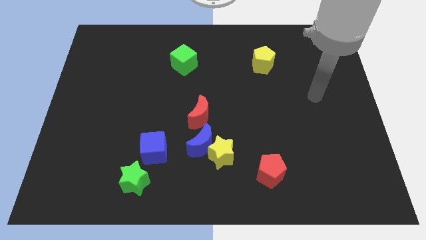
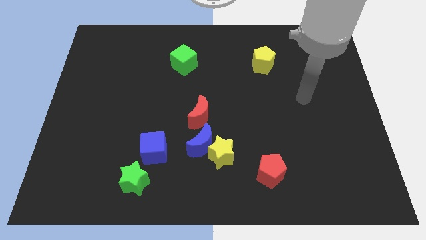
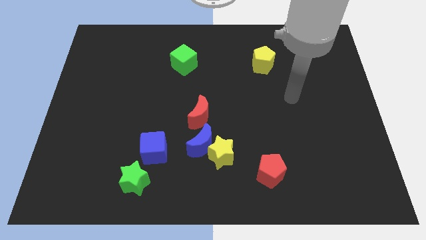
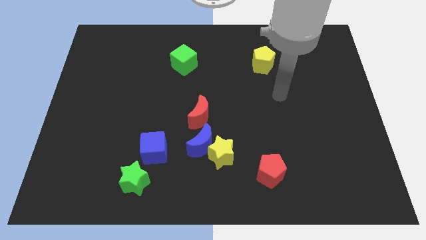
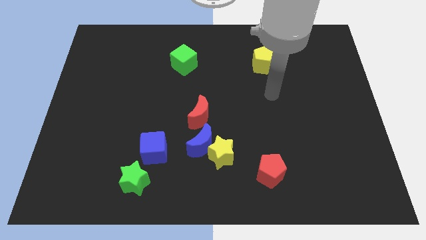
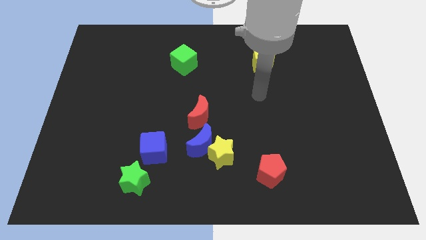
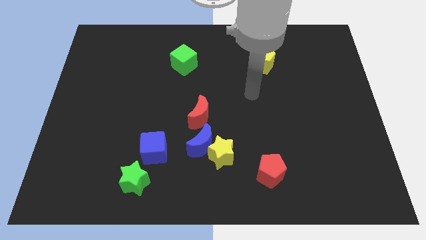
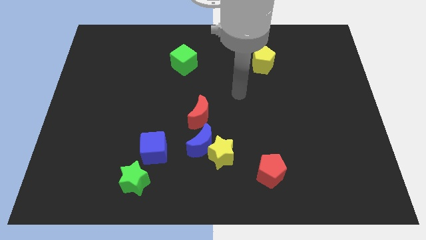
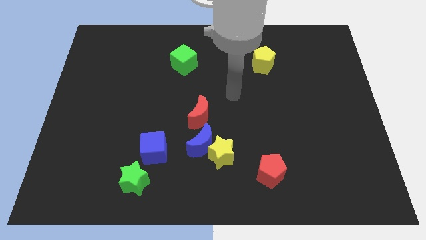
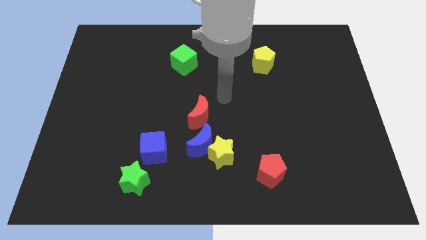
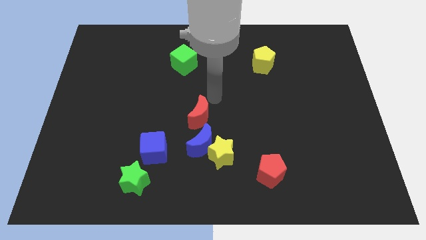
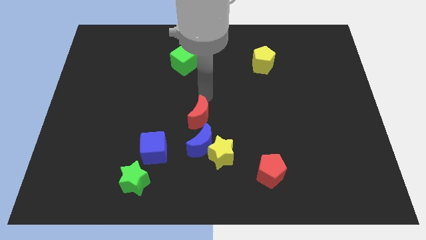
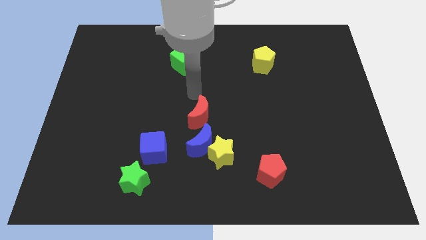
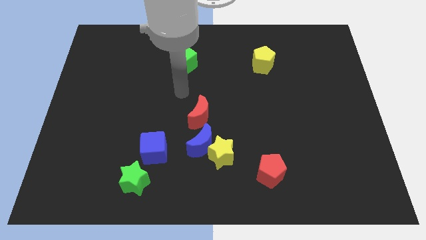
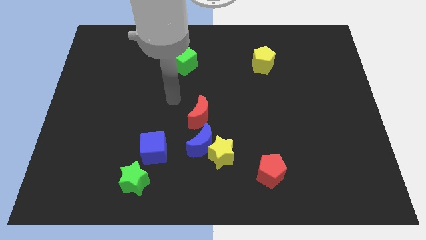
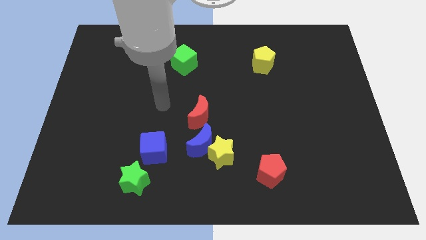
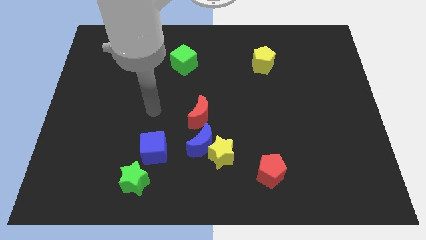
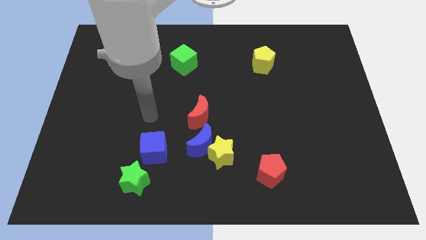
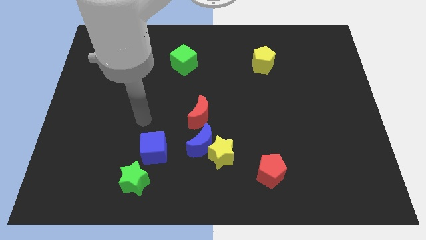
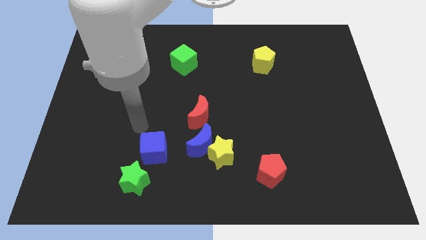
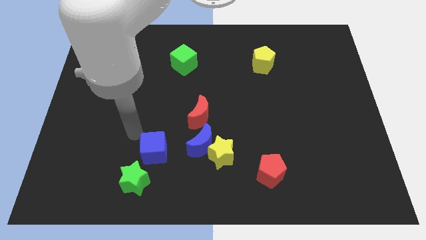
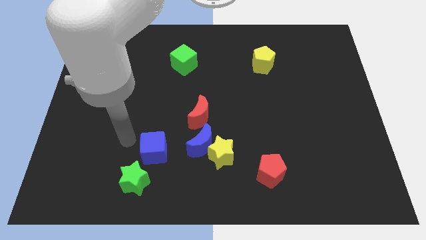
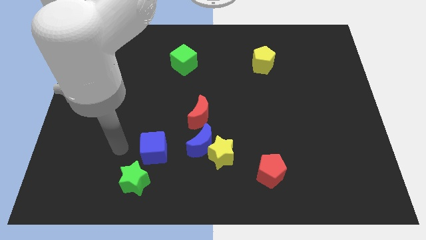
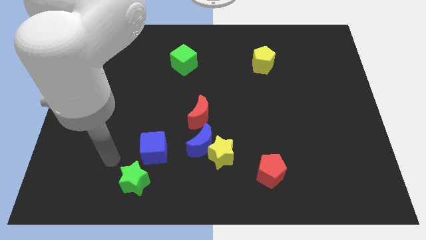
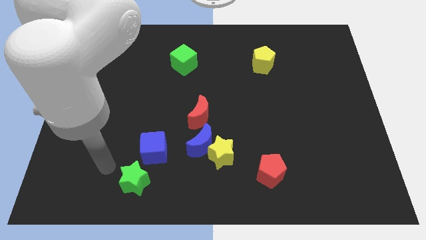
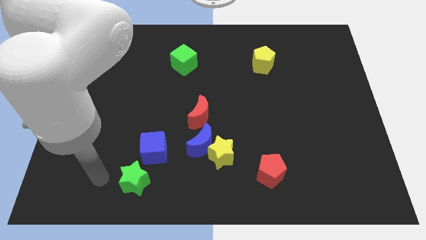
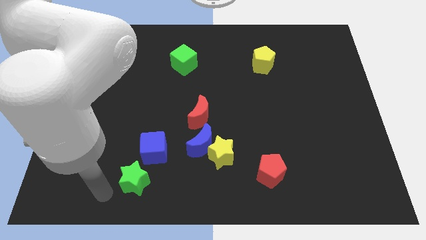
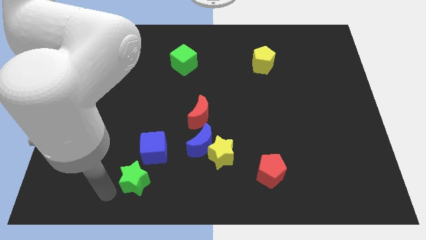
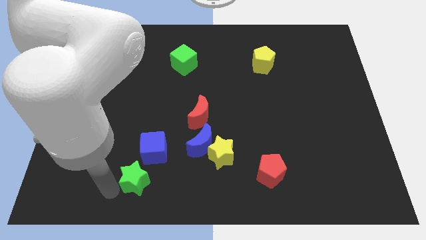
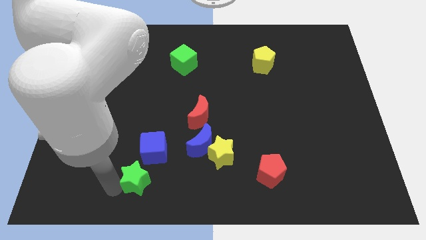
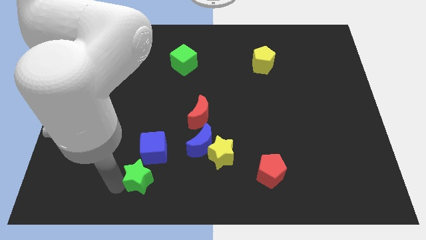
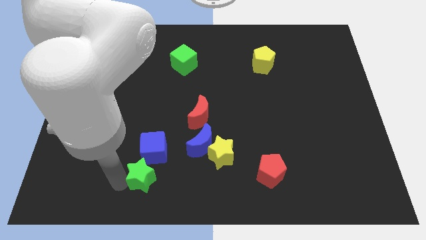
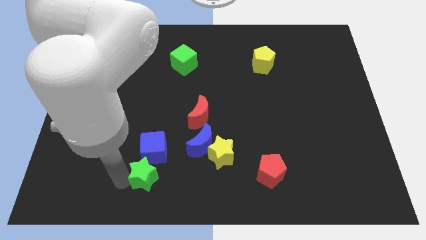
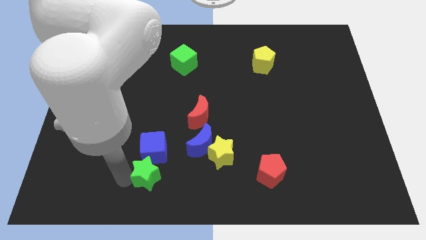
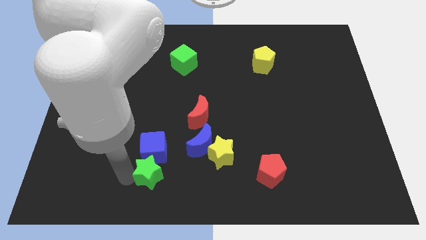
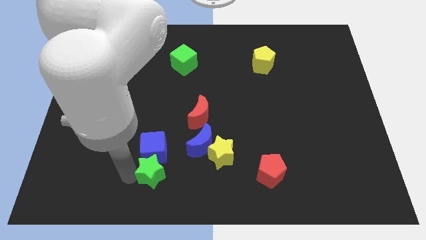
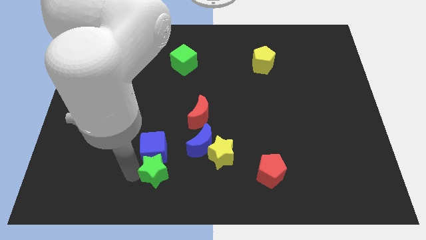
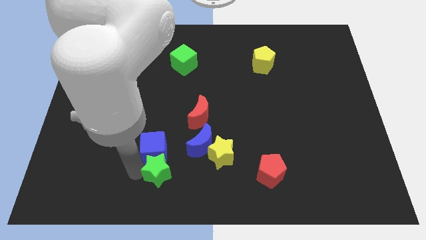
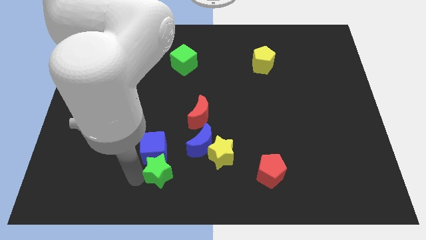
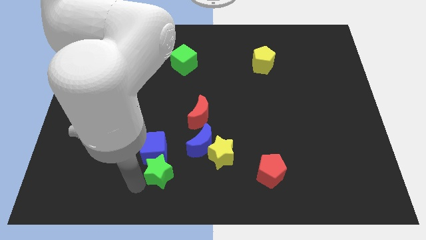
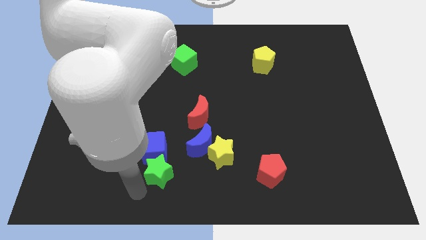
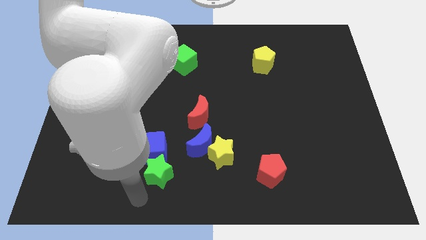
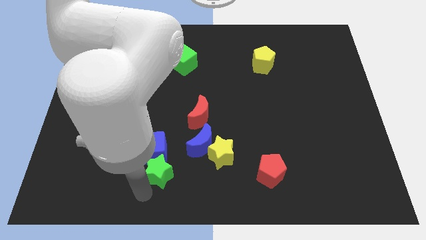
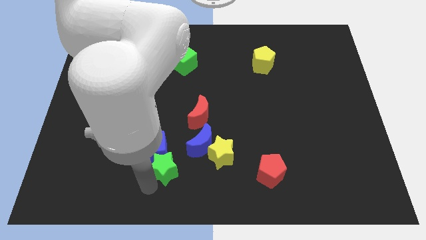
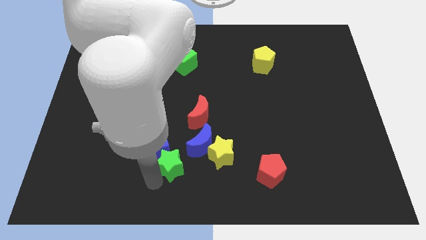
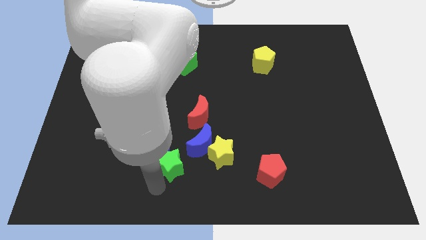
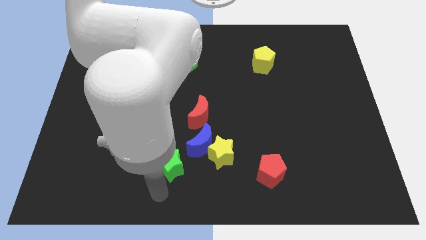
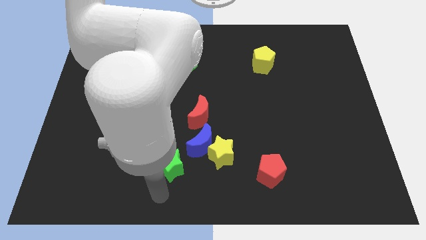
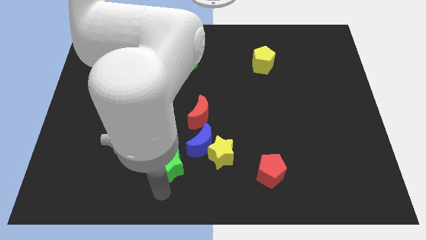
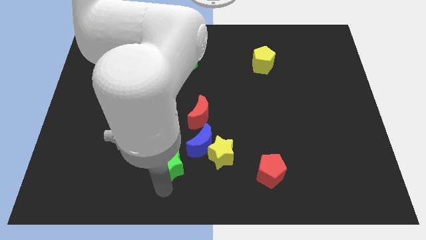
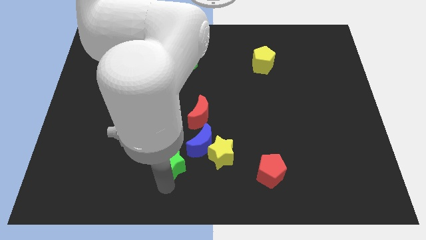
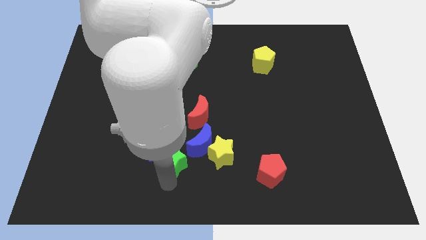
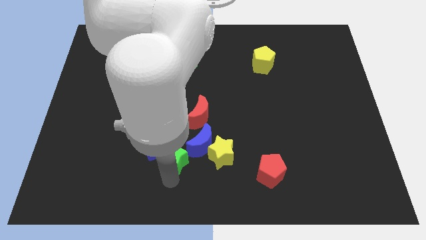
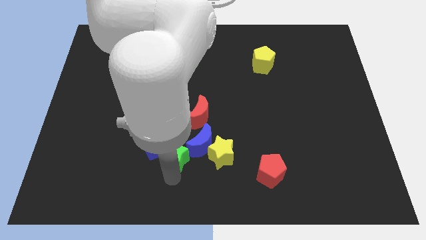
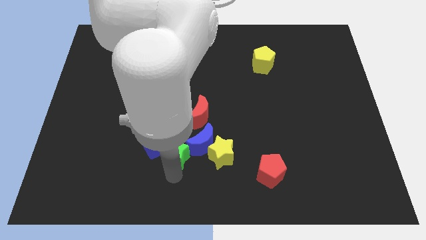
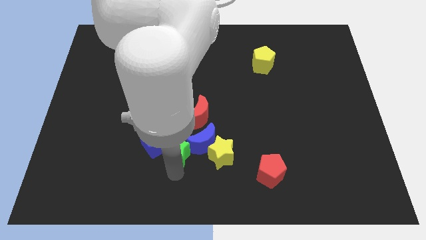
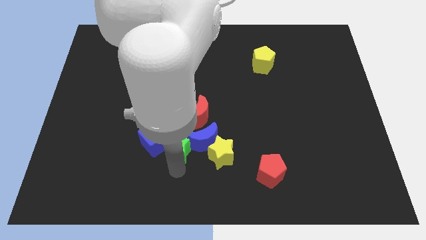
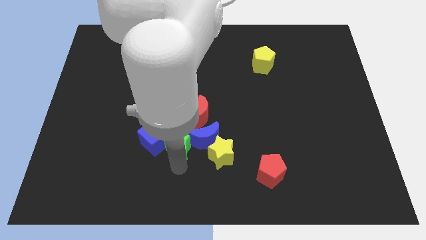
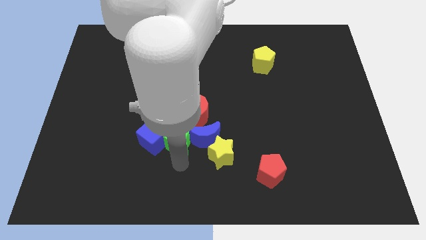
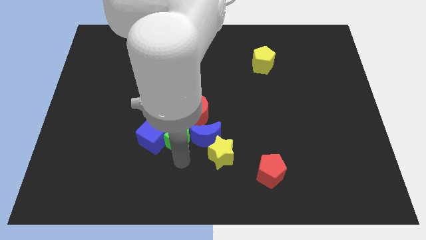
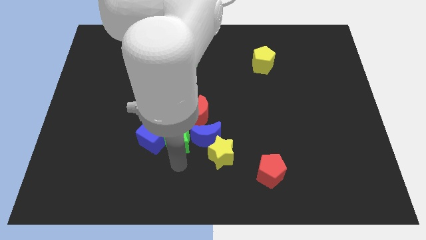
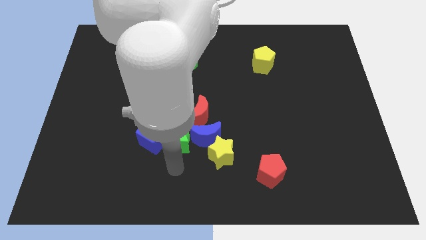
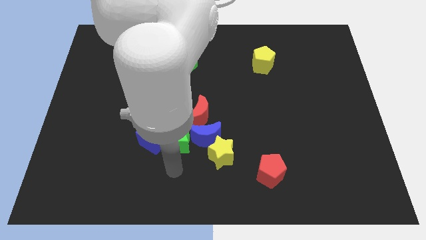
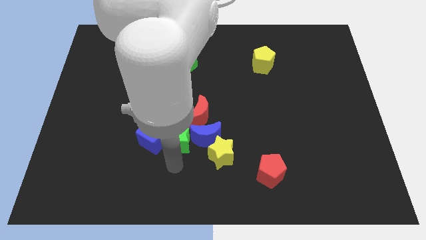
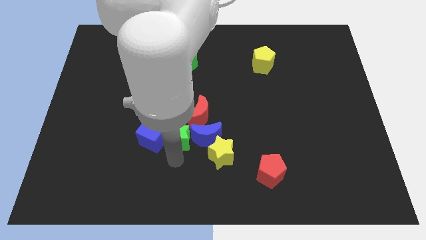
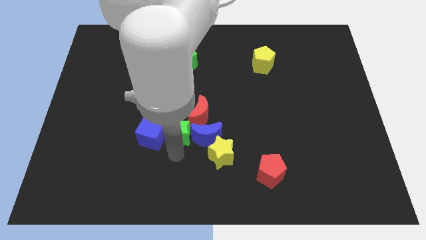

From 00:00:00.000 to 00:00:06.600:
put the green star to the center
